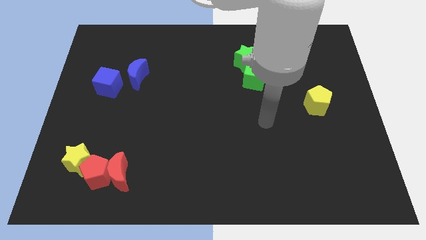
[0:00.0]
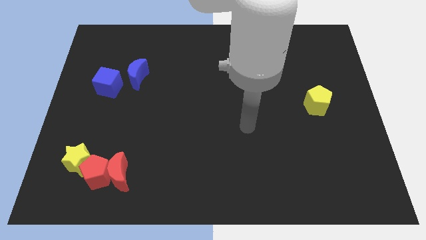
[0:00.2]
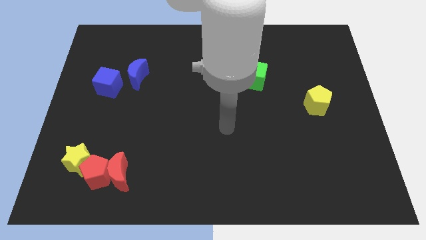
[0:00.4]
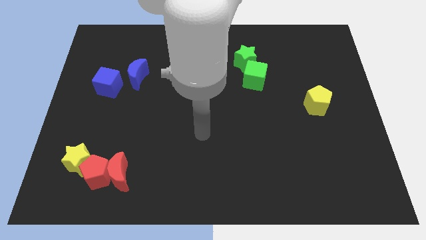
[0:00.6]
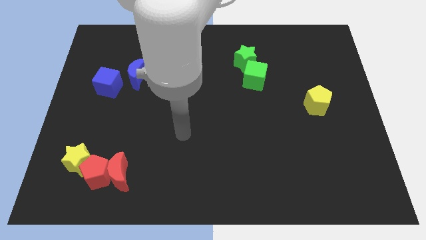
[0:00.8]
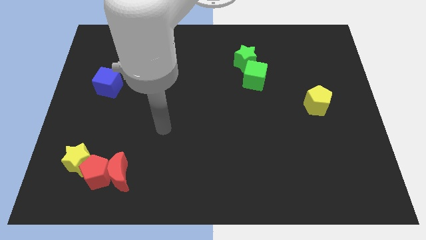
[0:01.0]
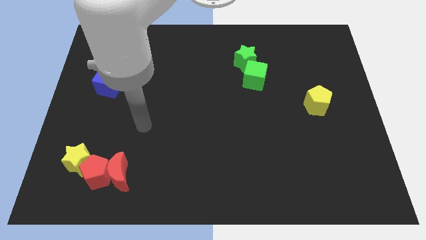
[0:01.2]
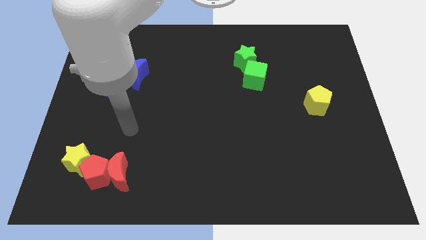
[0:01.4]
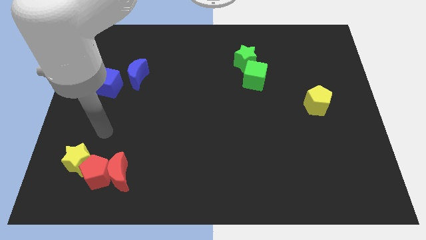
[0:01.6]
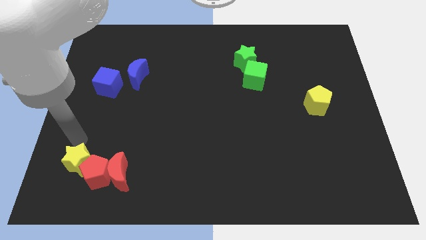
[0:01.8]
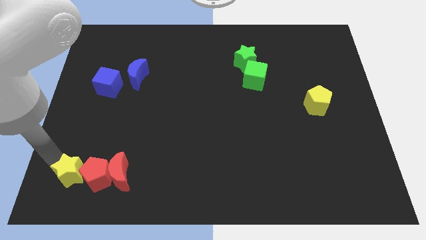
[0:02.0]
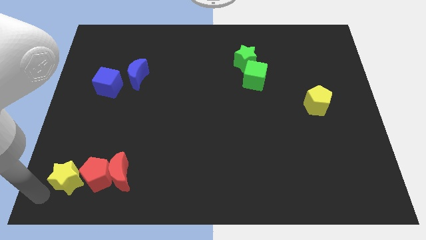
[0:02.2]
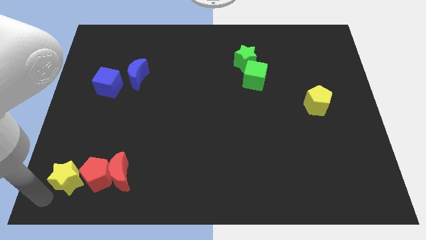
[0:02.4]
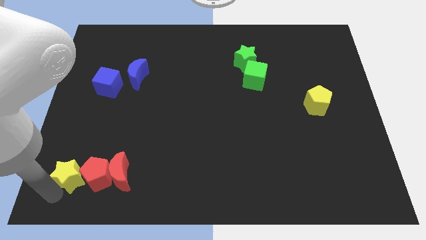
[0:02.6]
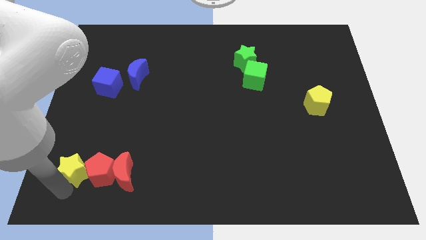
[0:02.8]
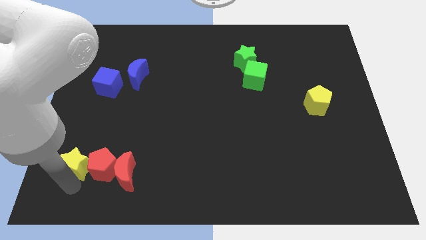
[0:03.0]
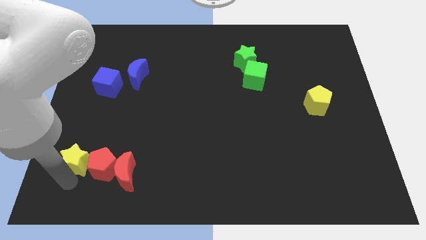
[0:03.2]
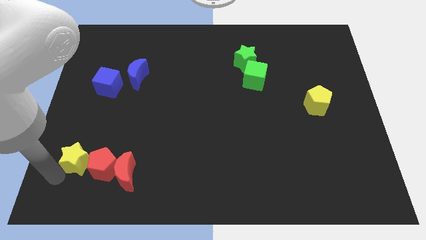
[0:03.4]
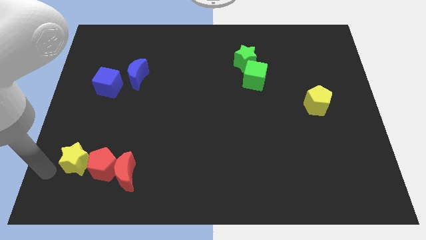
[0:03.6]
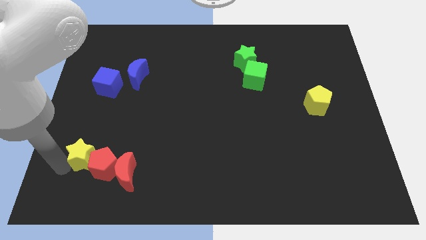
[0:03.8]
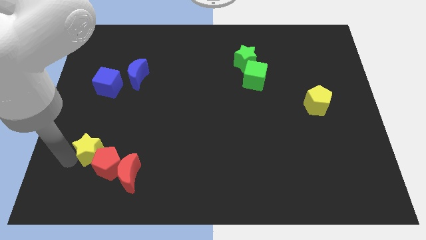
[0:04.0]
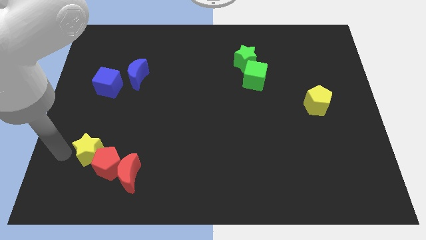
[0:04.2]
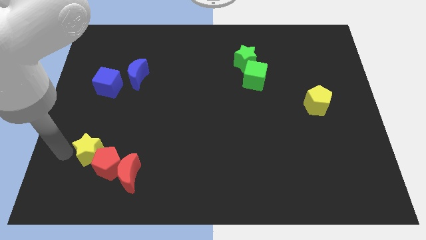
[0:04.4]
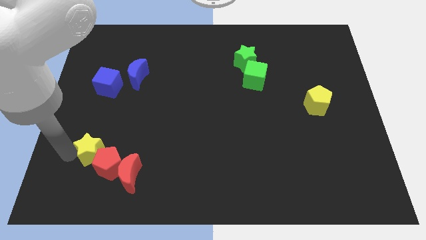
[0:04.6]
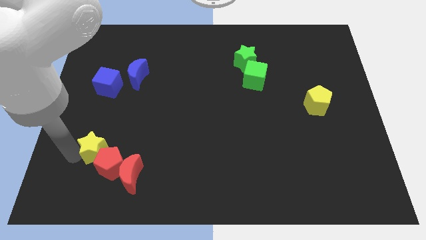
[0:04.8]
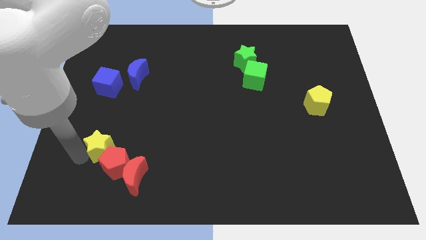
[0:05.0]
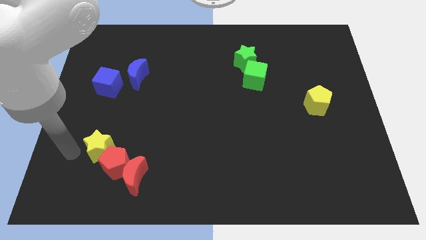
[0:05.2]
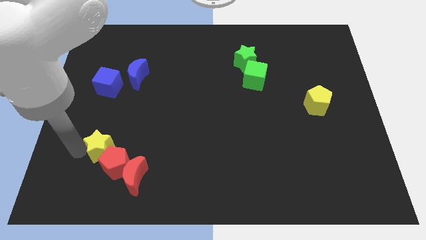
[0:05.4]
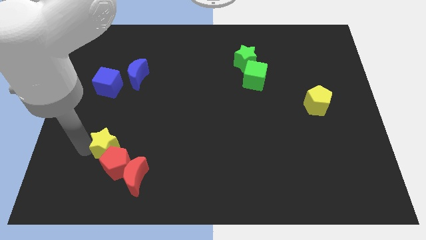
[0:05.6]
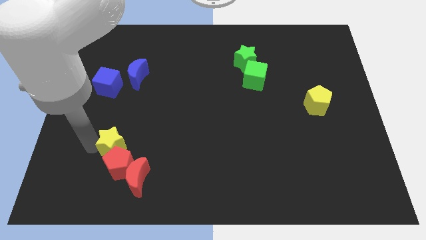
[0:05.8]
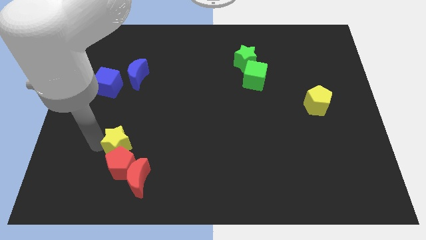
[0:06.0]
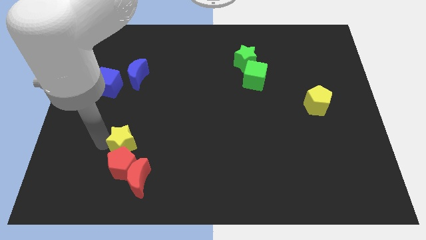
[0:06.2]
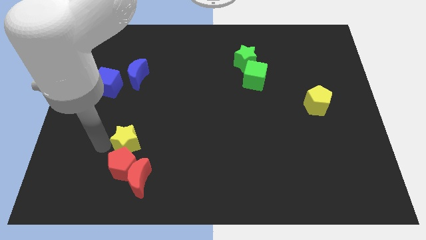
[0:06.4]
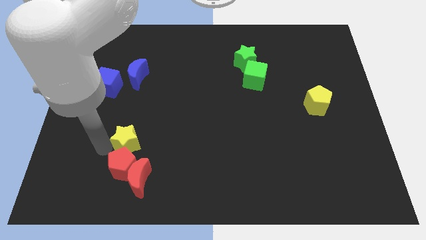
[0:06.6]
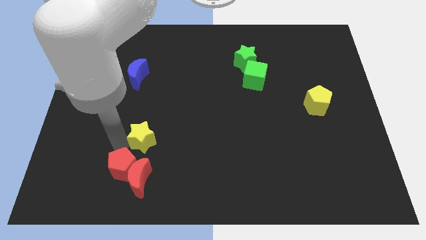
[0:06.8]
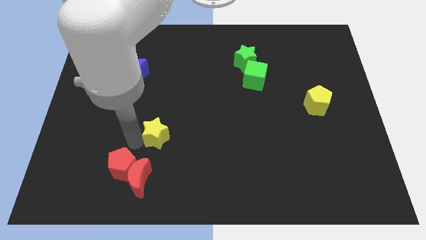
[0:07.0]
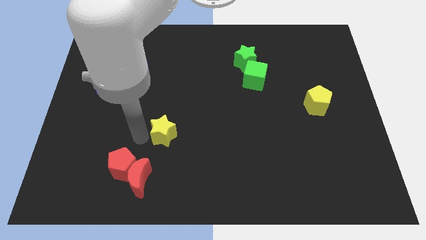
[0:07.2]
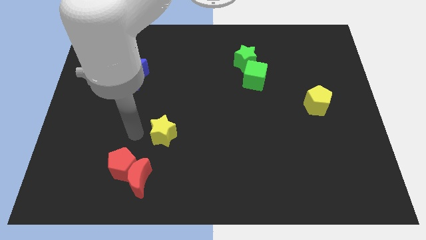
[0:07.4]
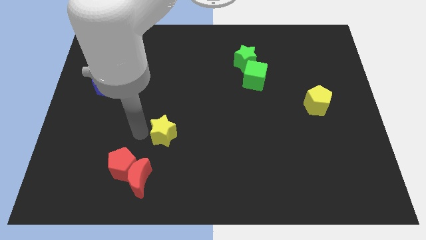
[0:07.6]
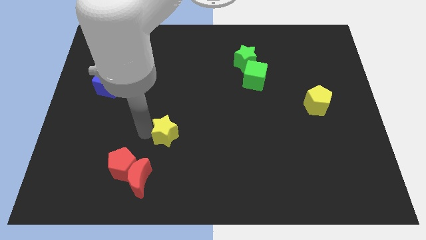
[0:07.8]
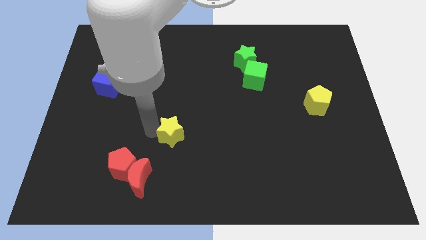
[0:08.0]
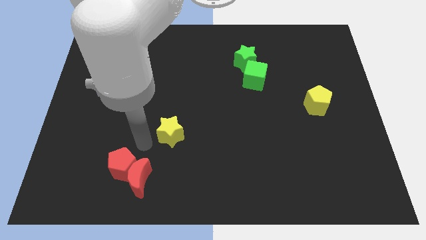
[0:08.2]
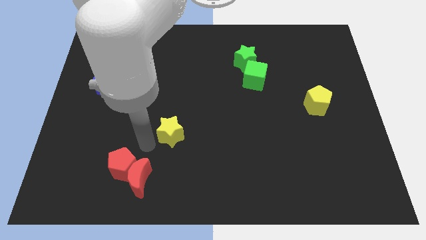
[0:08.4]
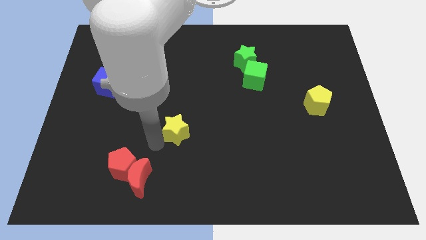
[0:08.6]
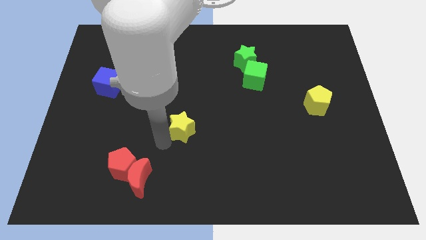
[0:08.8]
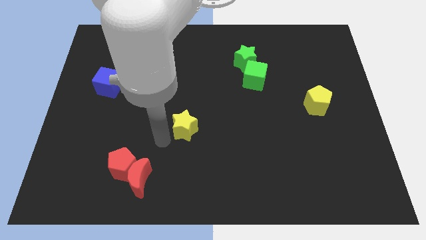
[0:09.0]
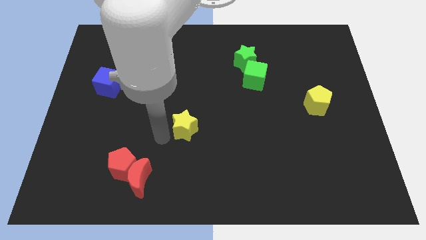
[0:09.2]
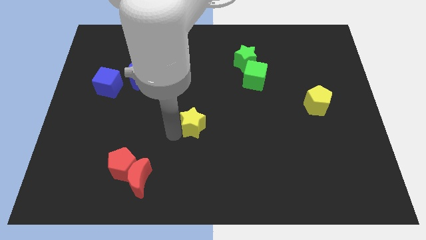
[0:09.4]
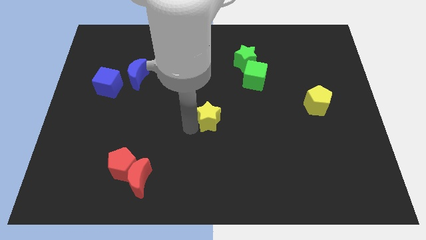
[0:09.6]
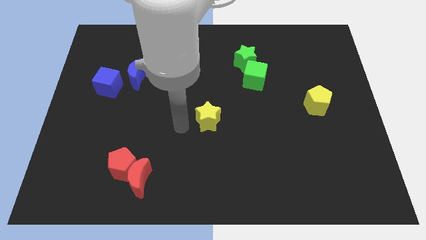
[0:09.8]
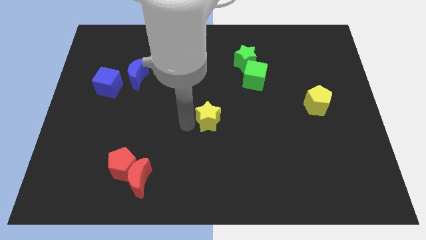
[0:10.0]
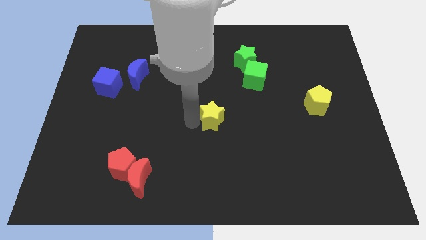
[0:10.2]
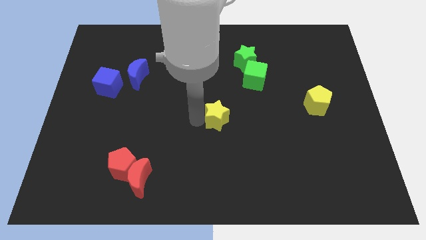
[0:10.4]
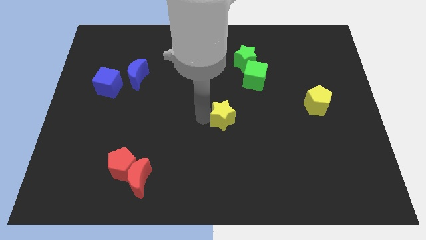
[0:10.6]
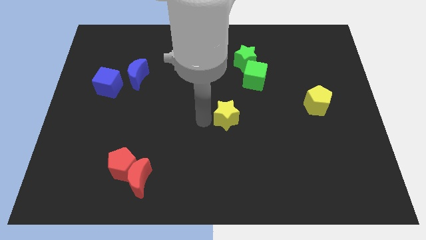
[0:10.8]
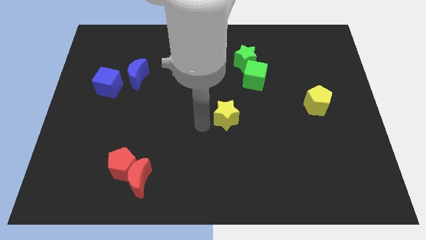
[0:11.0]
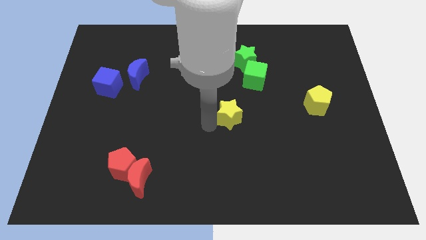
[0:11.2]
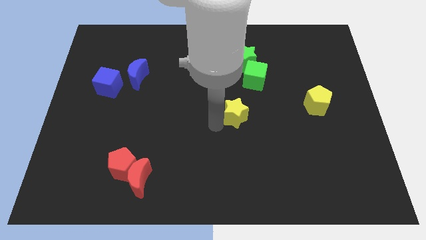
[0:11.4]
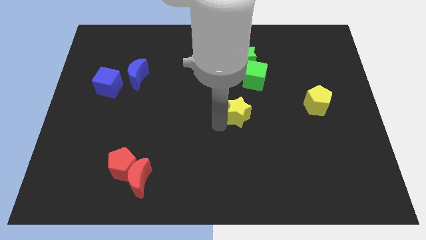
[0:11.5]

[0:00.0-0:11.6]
push the yellow star below the green cube

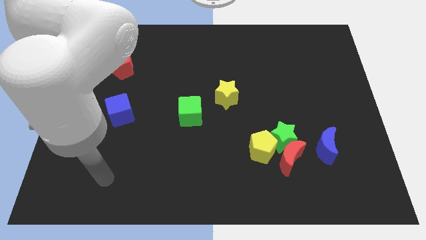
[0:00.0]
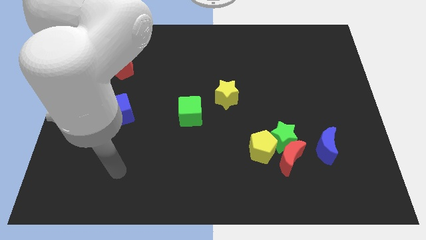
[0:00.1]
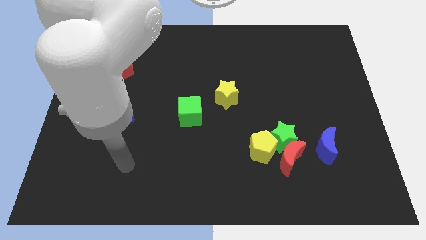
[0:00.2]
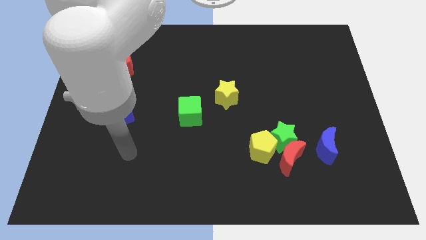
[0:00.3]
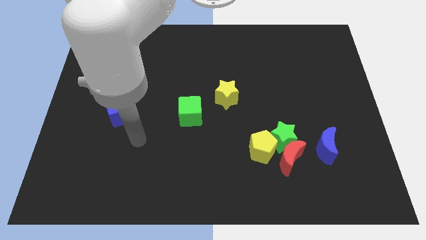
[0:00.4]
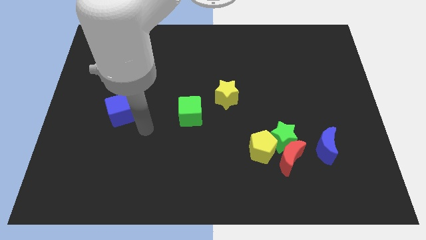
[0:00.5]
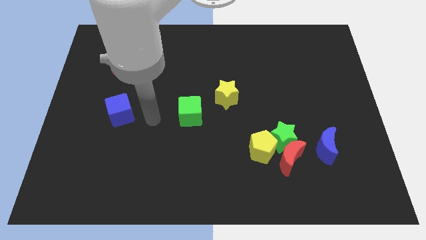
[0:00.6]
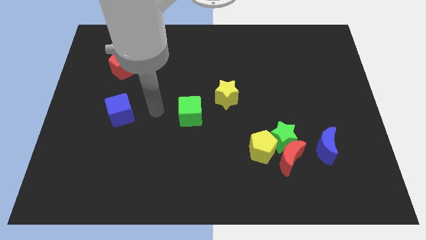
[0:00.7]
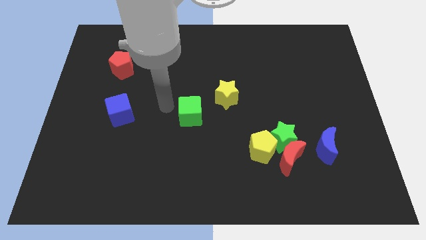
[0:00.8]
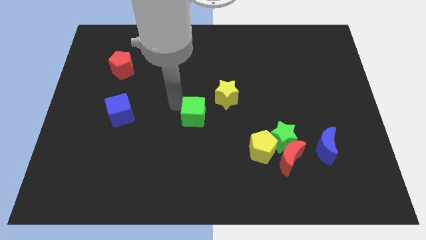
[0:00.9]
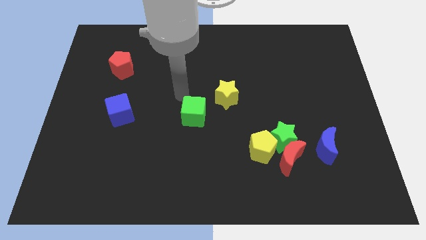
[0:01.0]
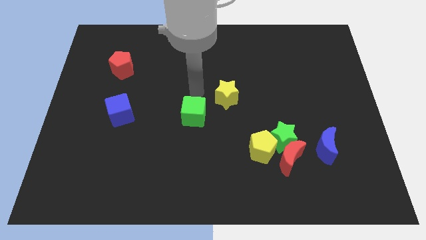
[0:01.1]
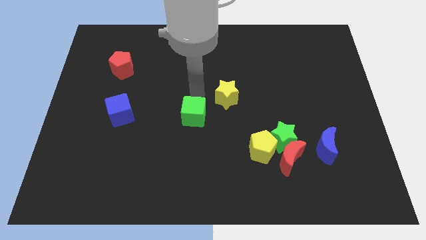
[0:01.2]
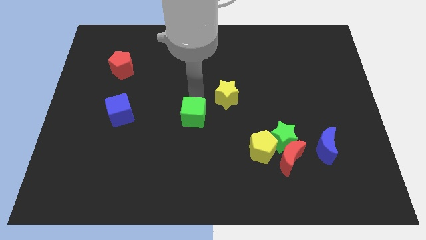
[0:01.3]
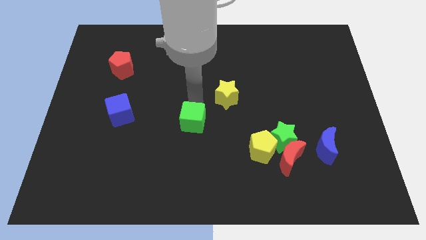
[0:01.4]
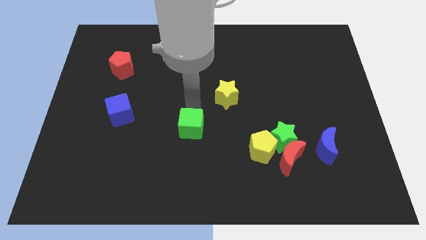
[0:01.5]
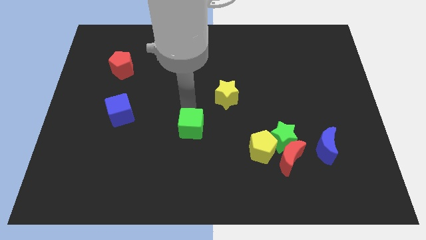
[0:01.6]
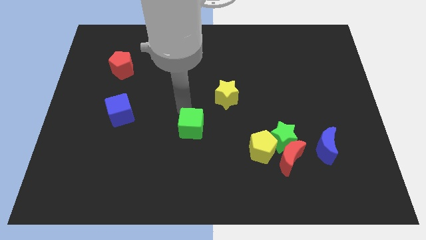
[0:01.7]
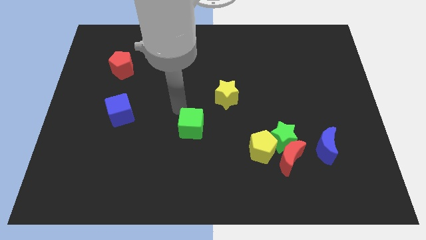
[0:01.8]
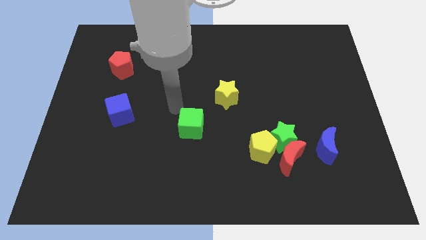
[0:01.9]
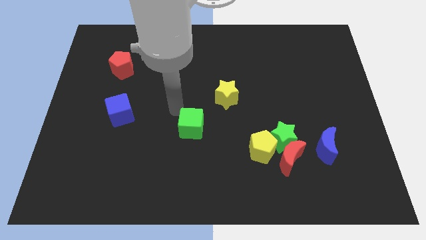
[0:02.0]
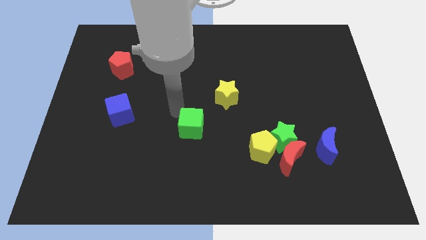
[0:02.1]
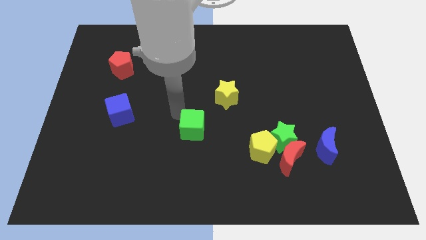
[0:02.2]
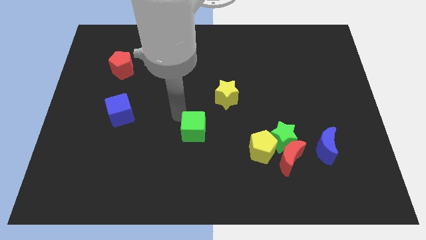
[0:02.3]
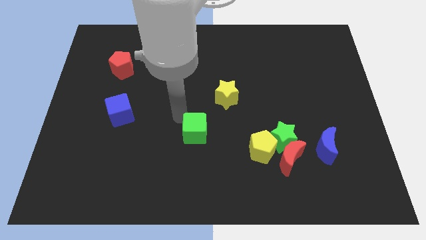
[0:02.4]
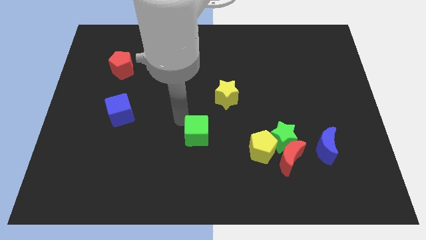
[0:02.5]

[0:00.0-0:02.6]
put the green cube to the left side of the yellow pentagon
